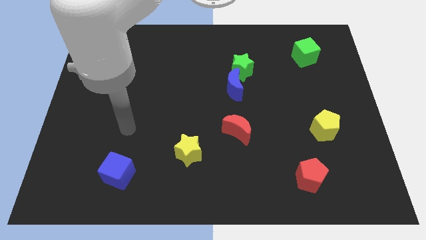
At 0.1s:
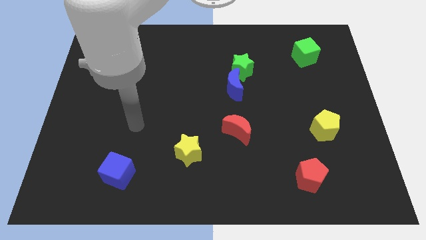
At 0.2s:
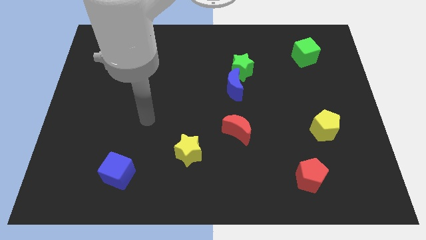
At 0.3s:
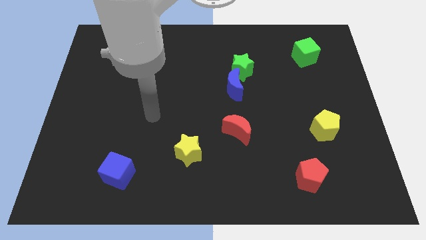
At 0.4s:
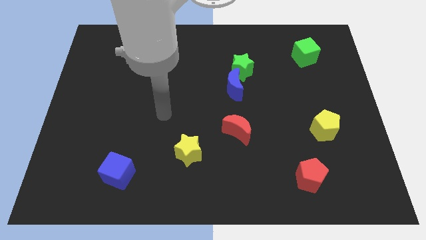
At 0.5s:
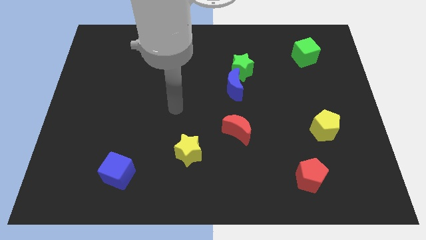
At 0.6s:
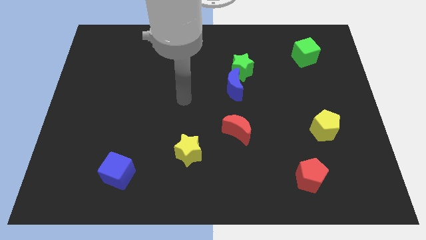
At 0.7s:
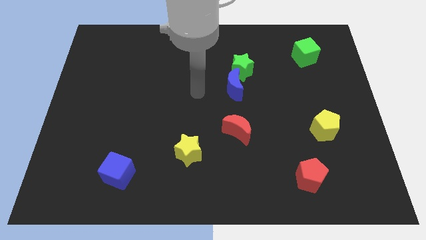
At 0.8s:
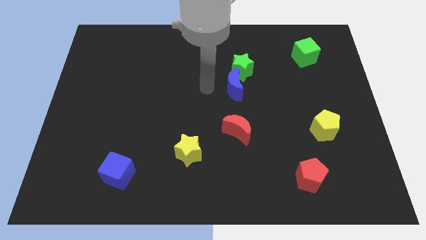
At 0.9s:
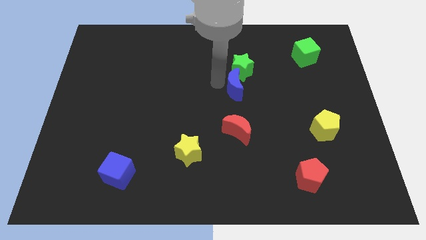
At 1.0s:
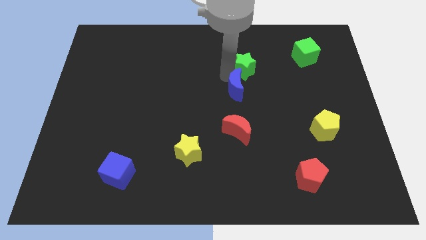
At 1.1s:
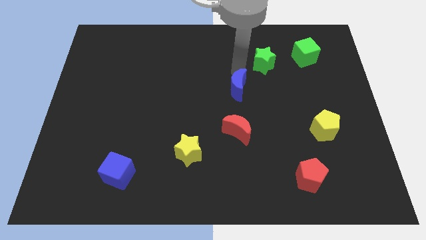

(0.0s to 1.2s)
move the blue moon away from the green star

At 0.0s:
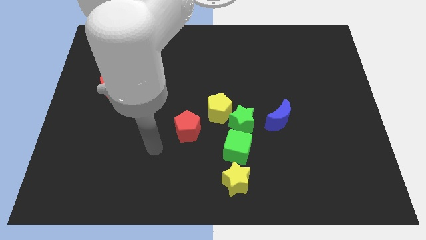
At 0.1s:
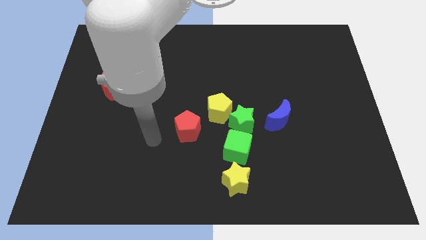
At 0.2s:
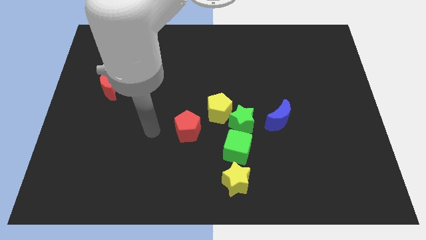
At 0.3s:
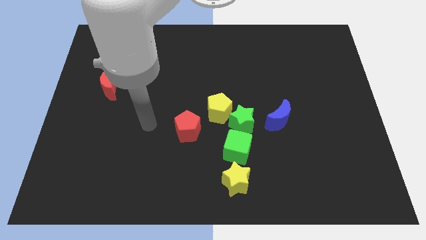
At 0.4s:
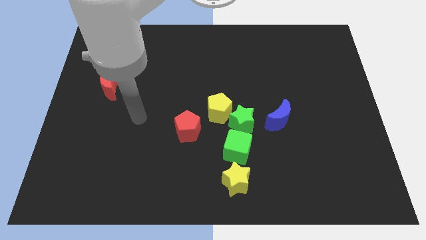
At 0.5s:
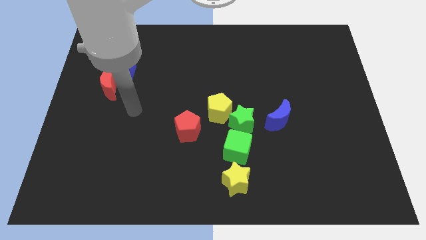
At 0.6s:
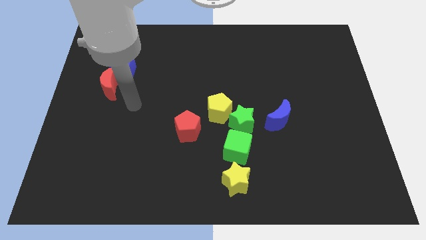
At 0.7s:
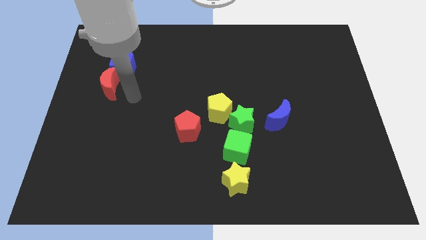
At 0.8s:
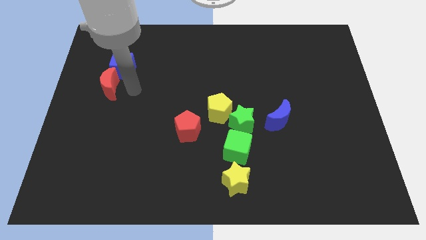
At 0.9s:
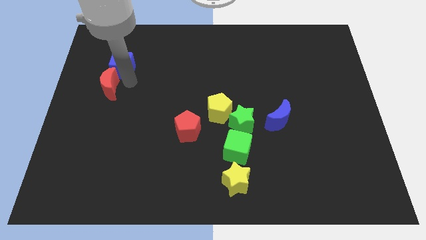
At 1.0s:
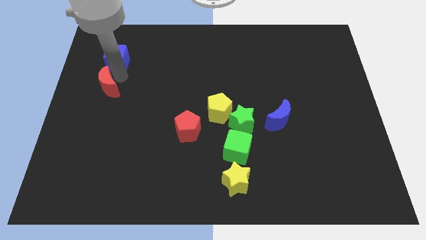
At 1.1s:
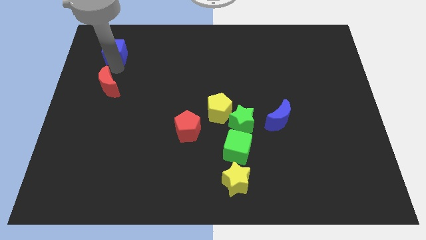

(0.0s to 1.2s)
separate the red moon from the blue cube

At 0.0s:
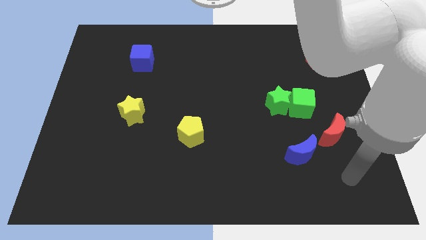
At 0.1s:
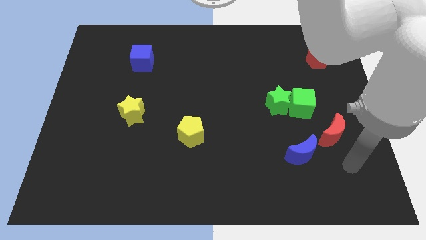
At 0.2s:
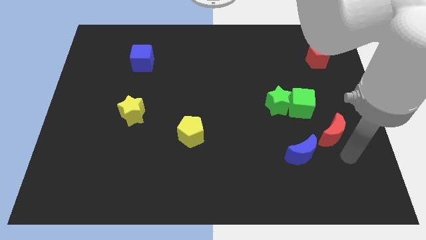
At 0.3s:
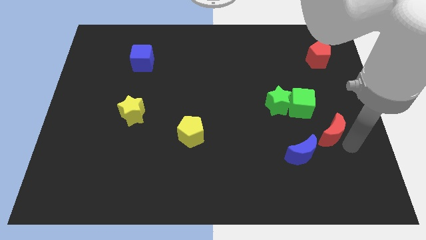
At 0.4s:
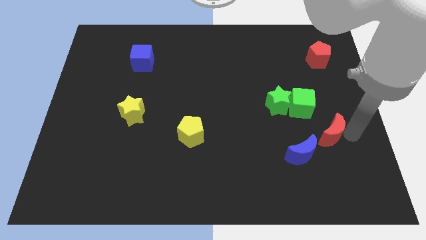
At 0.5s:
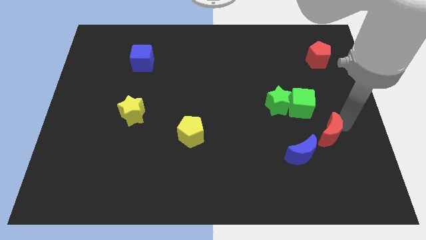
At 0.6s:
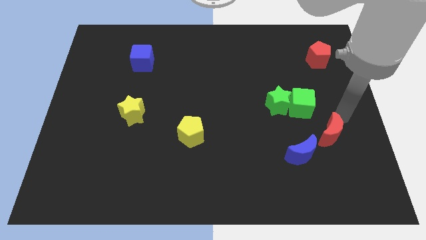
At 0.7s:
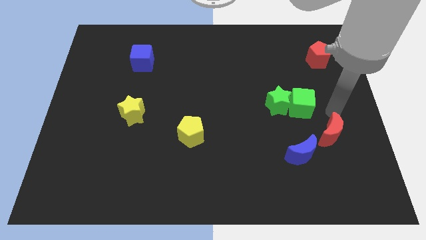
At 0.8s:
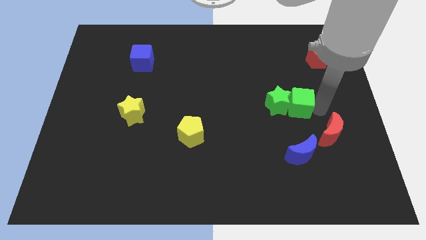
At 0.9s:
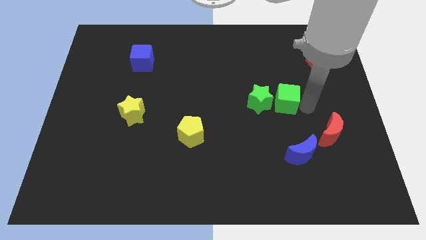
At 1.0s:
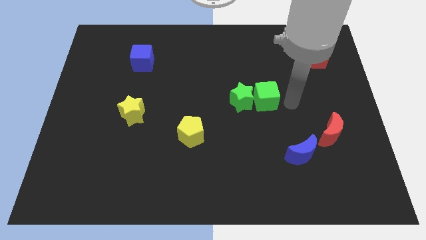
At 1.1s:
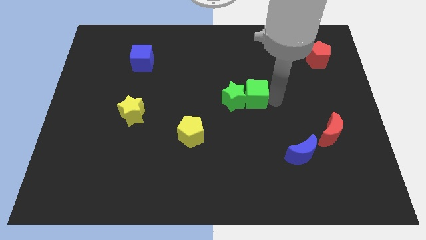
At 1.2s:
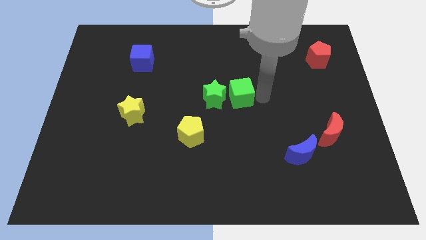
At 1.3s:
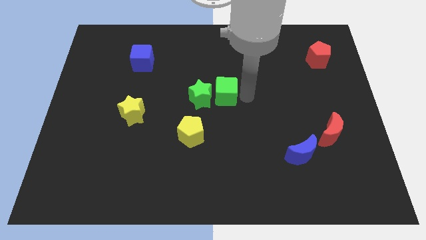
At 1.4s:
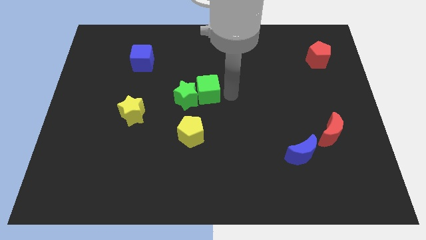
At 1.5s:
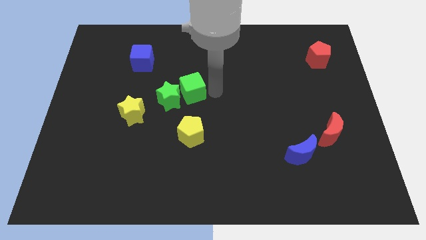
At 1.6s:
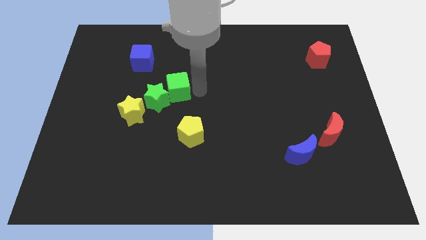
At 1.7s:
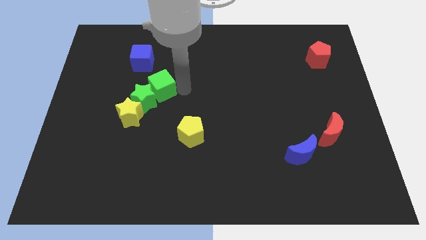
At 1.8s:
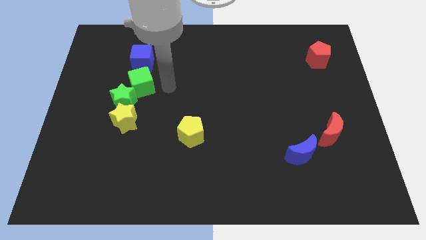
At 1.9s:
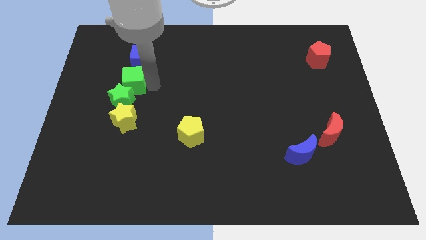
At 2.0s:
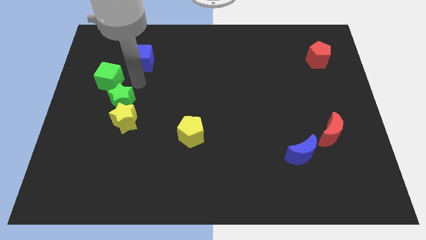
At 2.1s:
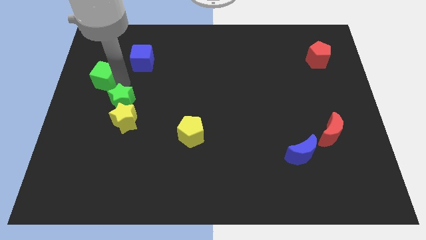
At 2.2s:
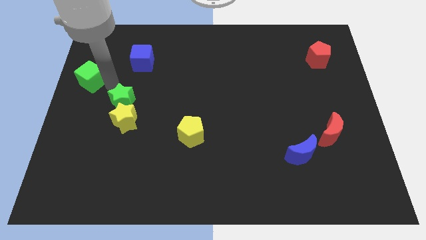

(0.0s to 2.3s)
pull the green star apart from the green cube

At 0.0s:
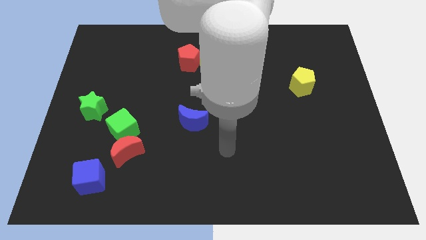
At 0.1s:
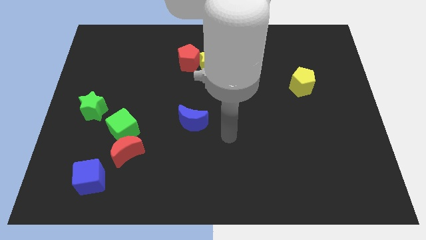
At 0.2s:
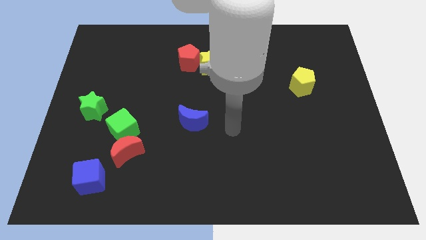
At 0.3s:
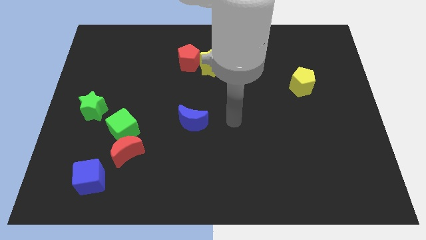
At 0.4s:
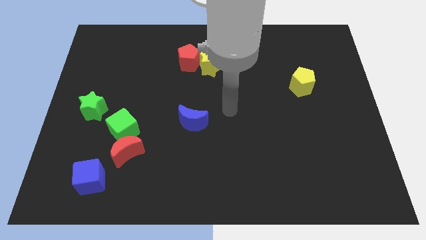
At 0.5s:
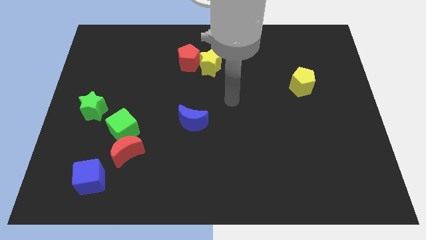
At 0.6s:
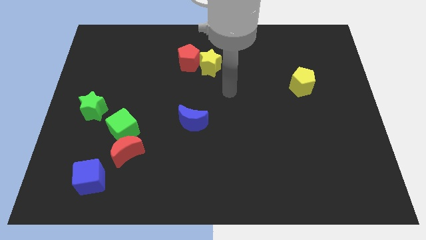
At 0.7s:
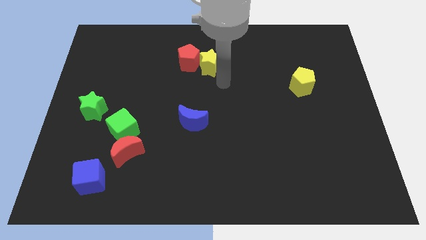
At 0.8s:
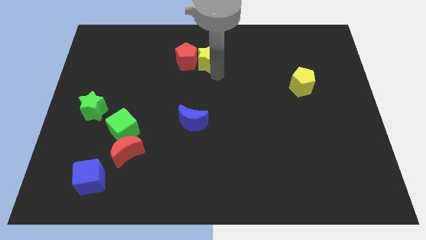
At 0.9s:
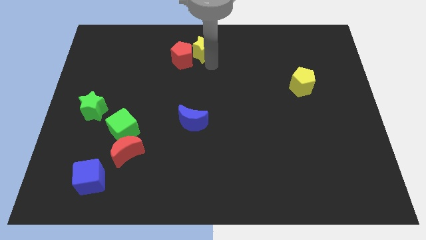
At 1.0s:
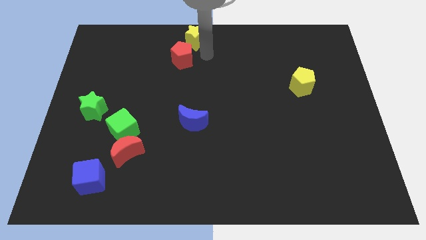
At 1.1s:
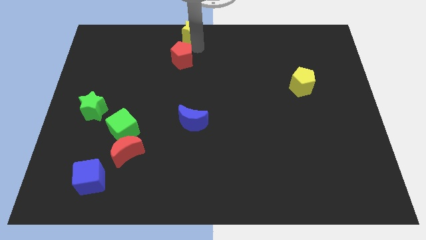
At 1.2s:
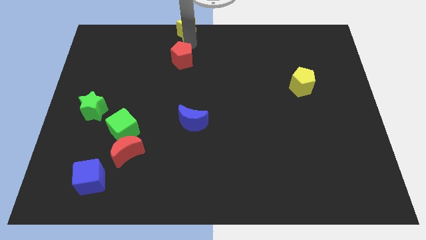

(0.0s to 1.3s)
move the red pentagon away from the yellow star

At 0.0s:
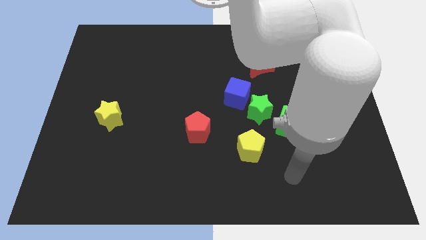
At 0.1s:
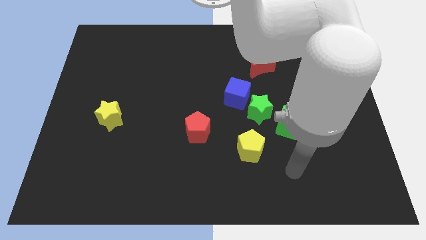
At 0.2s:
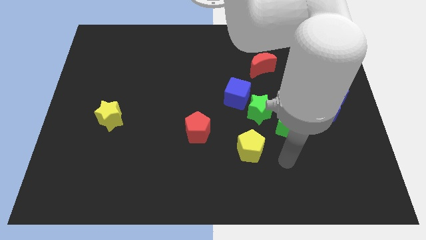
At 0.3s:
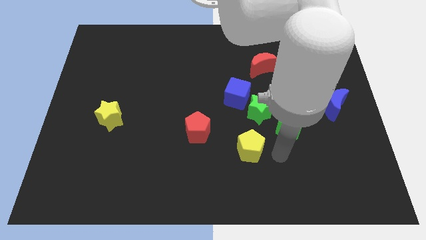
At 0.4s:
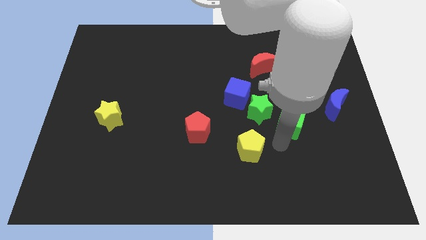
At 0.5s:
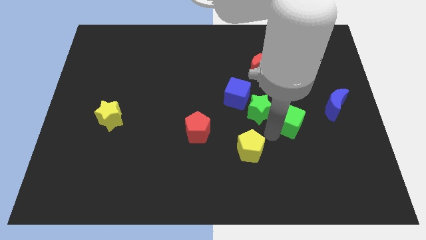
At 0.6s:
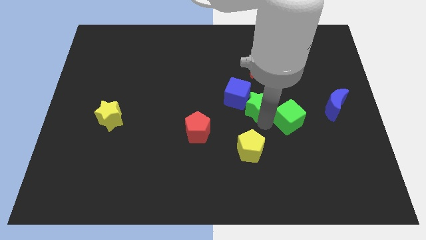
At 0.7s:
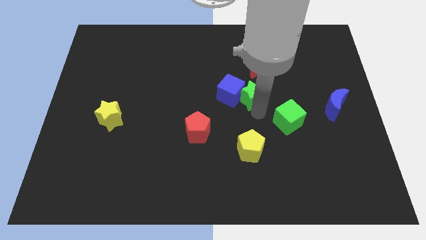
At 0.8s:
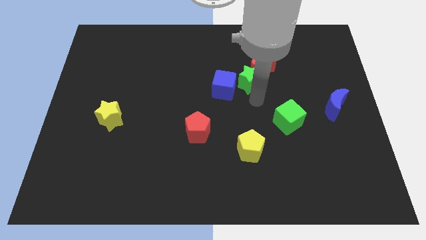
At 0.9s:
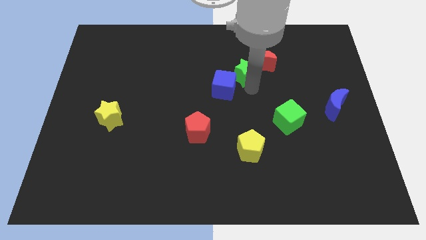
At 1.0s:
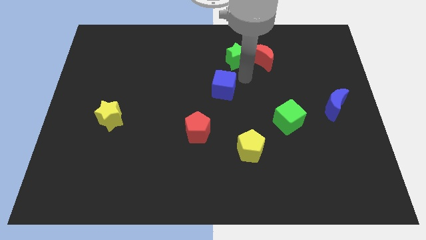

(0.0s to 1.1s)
pull the blue cube apart from the green star

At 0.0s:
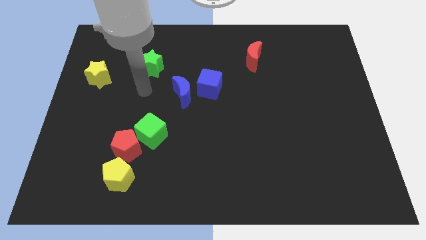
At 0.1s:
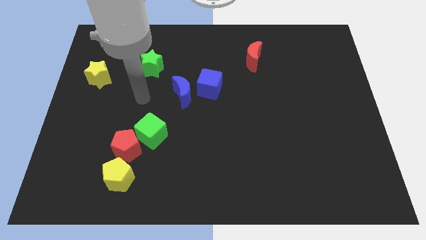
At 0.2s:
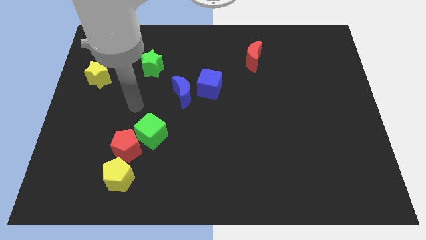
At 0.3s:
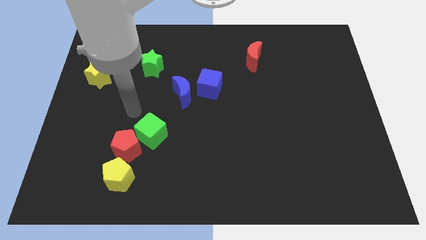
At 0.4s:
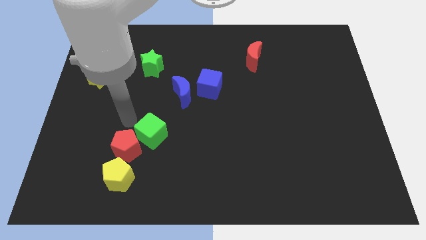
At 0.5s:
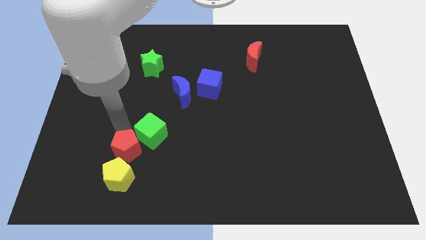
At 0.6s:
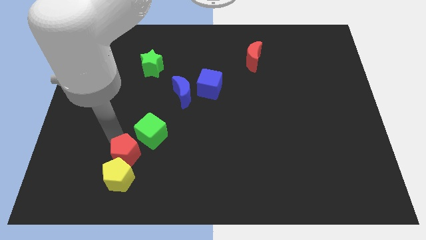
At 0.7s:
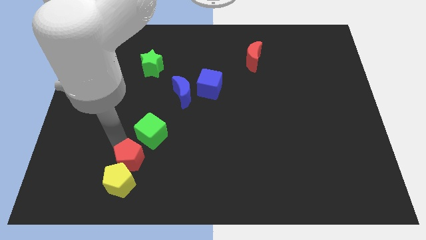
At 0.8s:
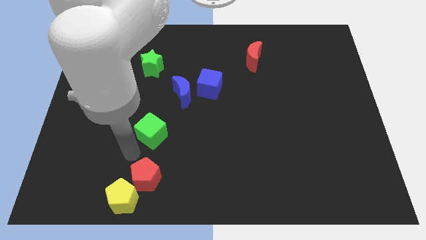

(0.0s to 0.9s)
pull the green cube apart from the red pentagon

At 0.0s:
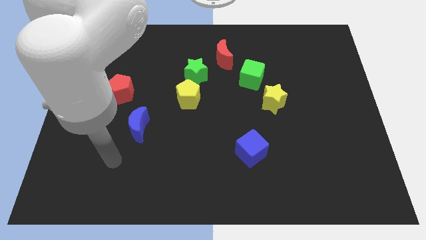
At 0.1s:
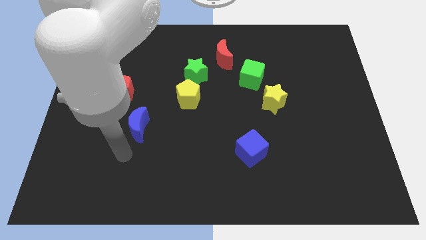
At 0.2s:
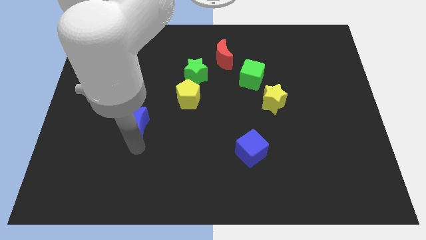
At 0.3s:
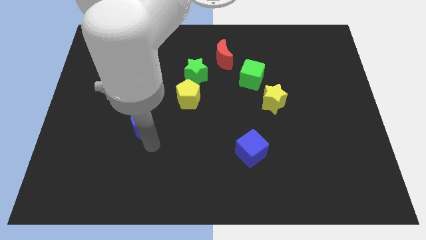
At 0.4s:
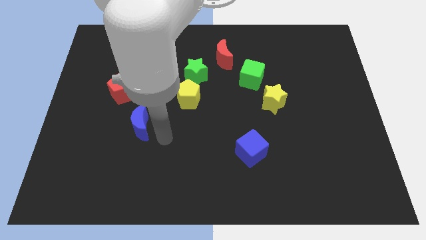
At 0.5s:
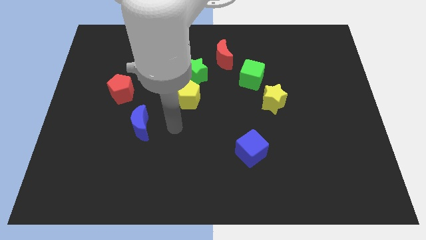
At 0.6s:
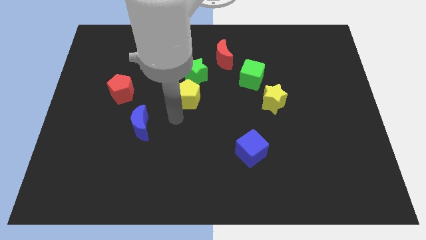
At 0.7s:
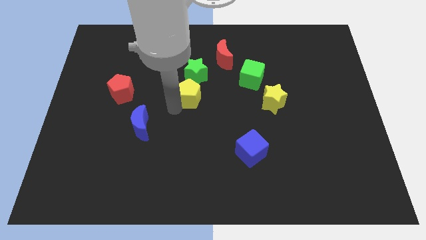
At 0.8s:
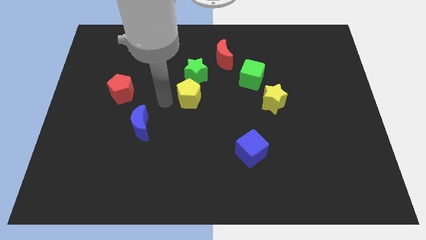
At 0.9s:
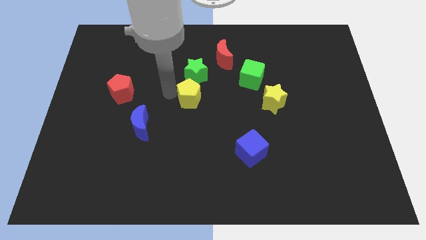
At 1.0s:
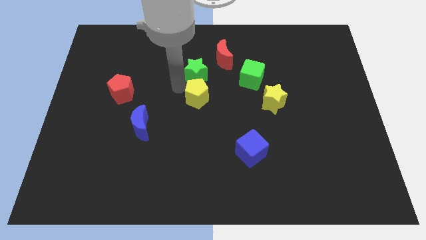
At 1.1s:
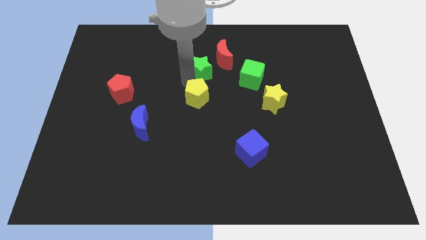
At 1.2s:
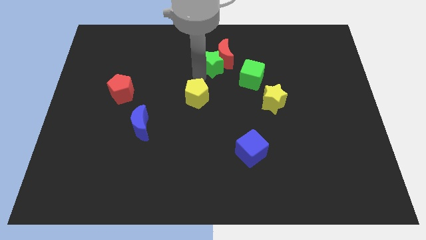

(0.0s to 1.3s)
separate the yellow pentagon from the green star
